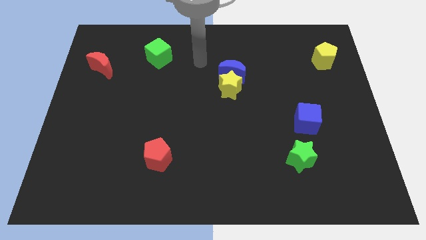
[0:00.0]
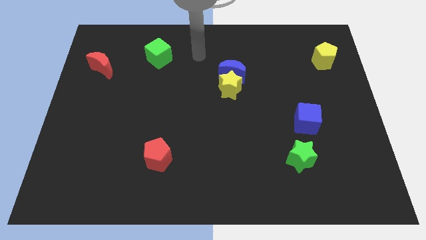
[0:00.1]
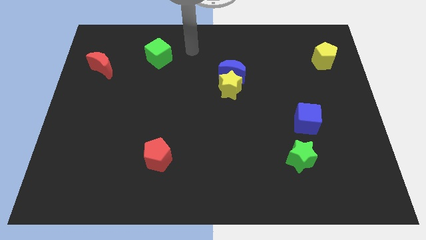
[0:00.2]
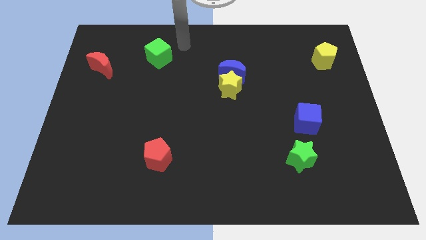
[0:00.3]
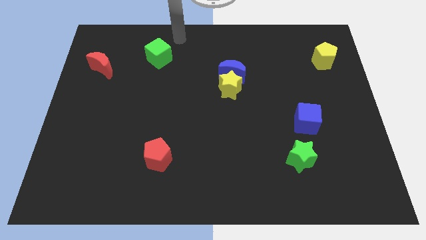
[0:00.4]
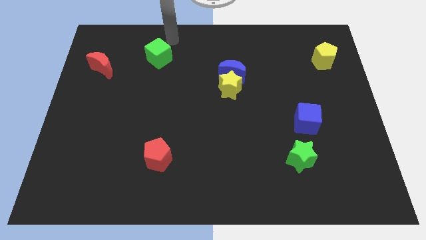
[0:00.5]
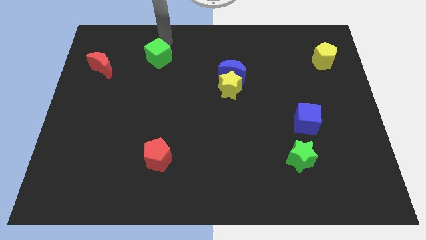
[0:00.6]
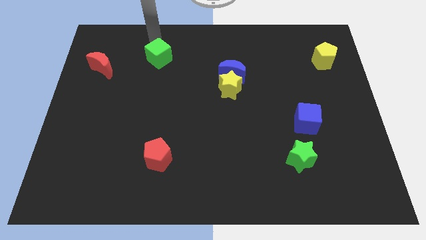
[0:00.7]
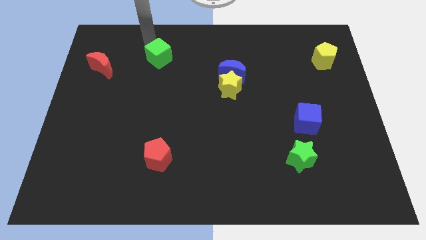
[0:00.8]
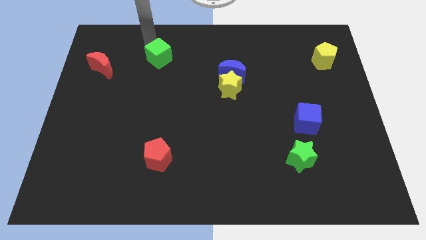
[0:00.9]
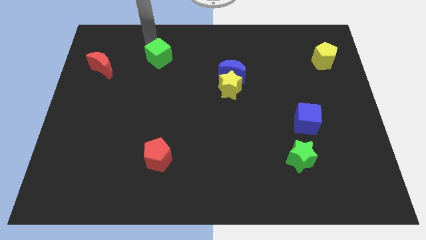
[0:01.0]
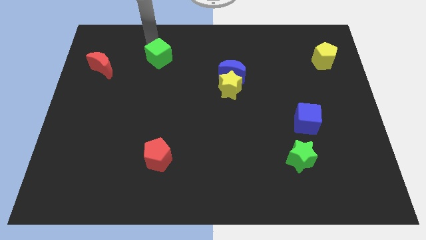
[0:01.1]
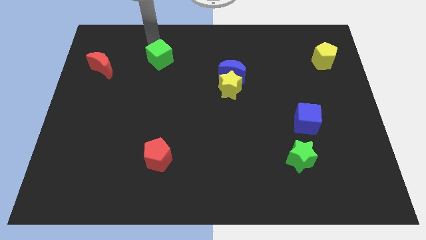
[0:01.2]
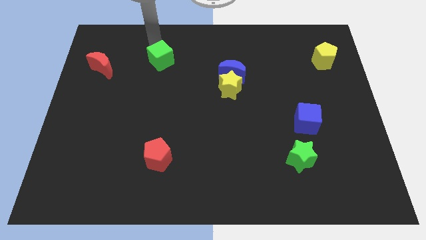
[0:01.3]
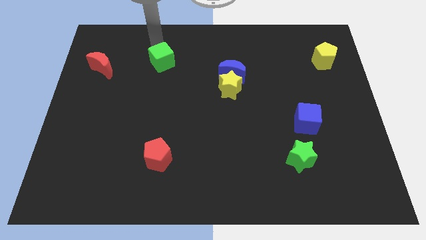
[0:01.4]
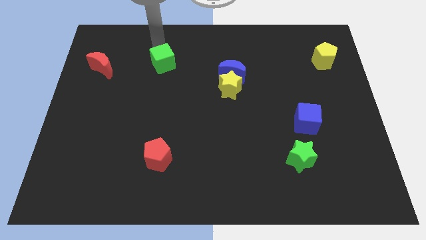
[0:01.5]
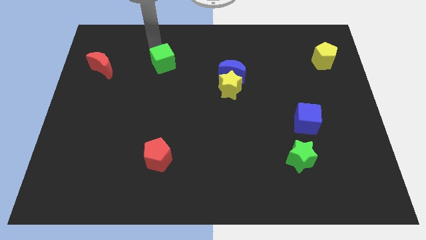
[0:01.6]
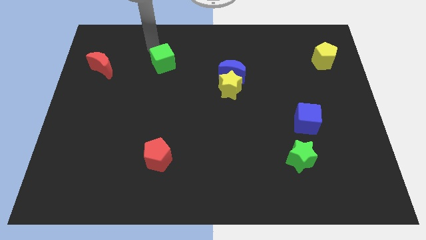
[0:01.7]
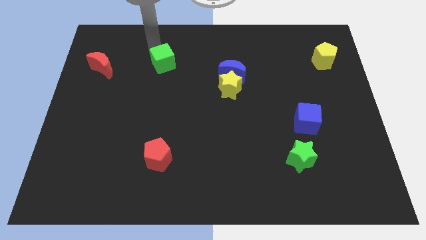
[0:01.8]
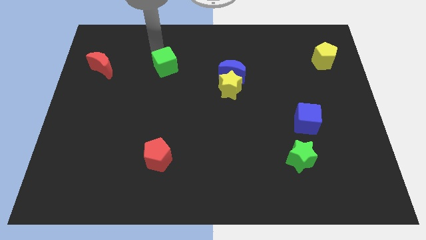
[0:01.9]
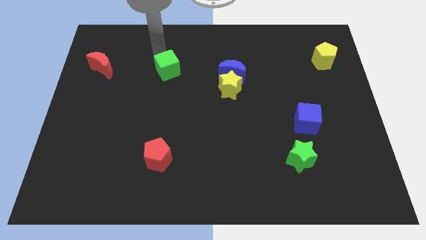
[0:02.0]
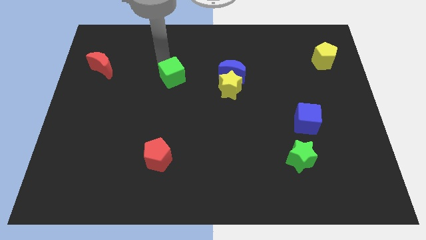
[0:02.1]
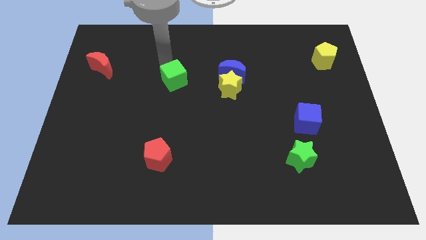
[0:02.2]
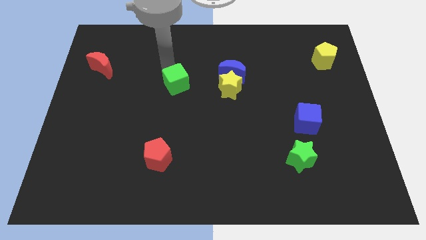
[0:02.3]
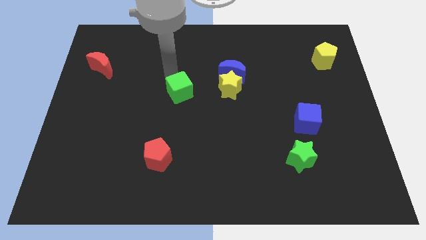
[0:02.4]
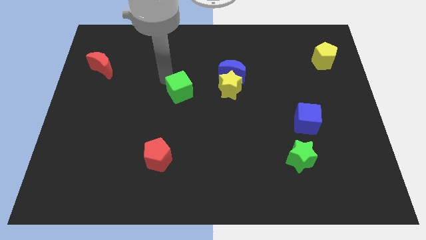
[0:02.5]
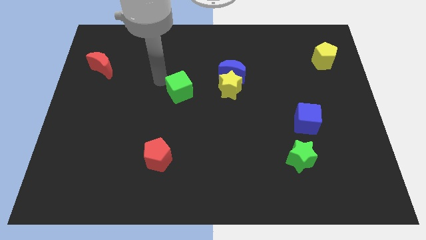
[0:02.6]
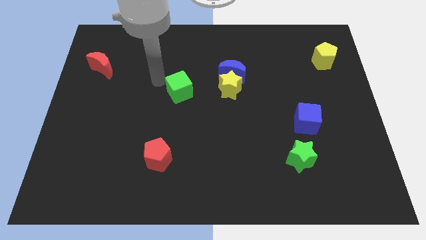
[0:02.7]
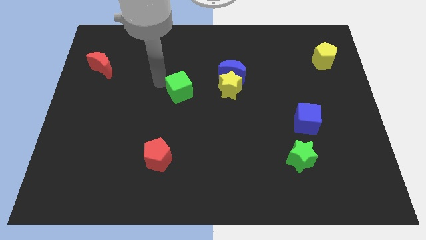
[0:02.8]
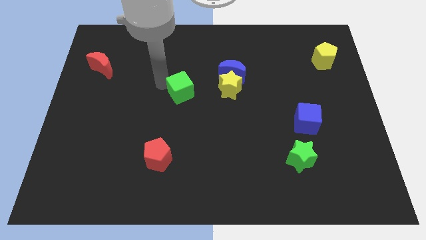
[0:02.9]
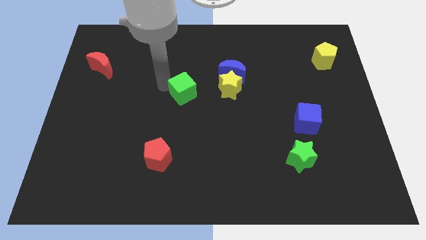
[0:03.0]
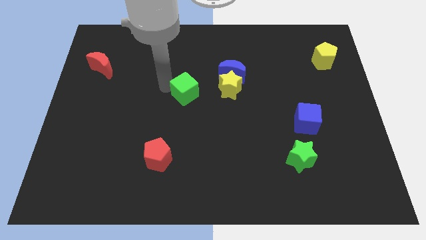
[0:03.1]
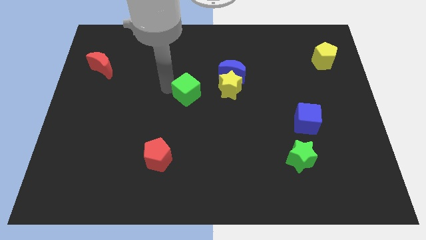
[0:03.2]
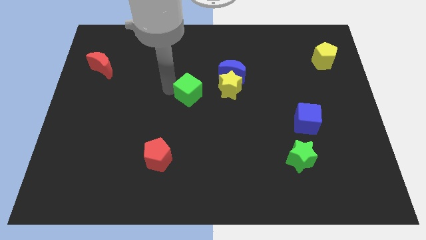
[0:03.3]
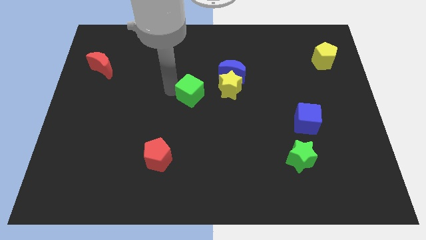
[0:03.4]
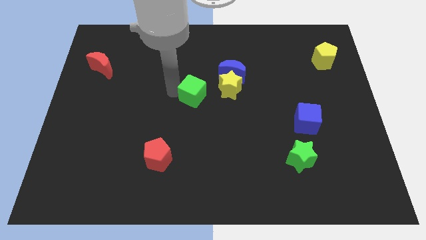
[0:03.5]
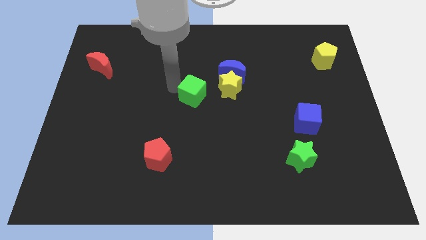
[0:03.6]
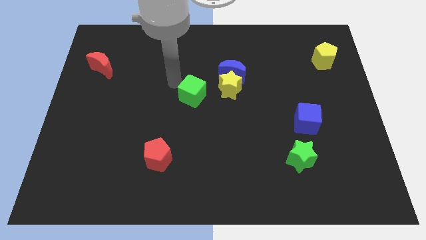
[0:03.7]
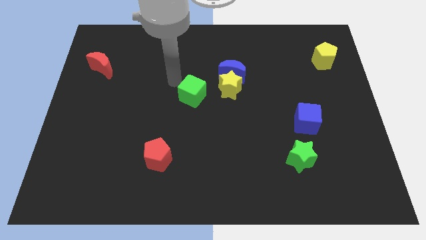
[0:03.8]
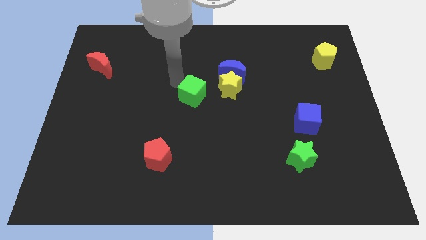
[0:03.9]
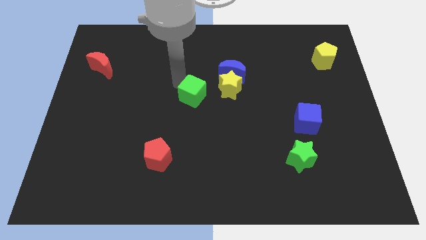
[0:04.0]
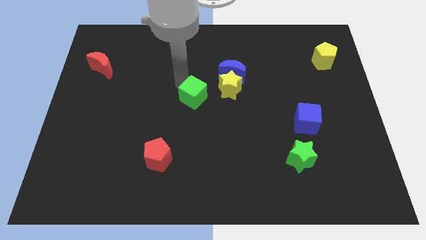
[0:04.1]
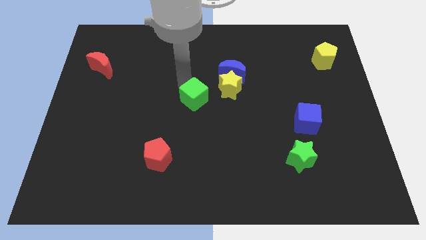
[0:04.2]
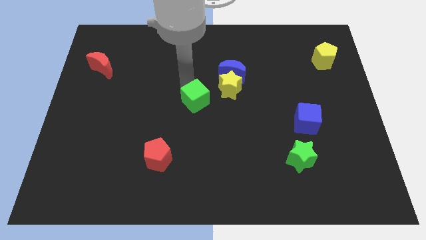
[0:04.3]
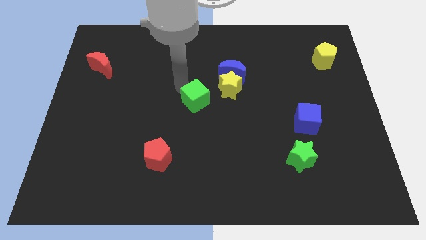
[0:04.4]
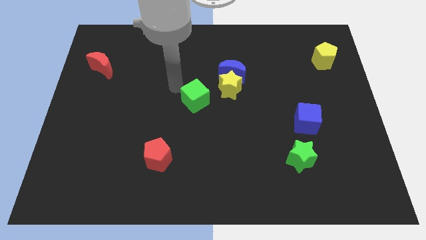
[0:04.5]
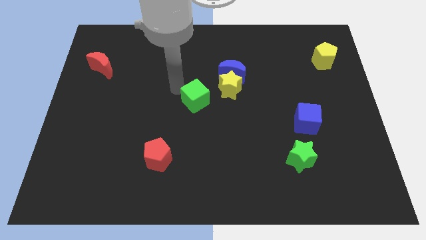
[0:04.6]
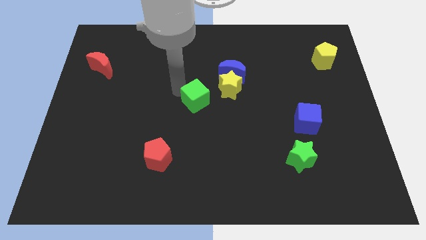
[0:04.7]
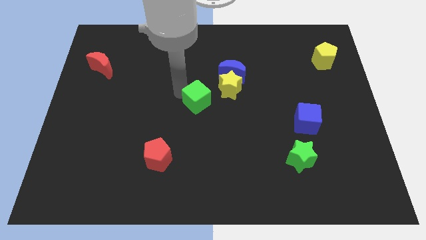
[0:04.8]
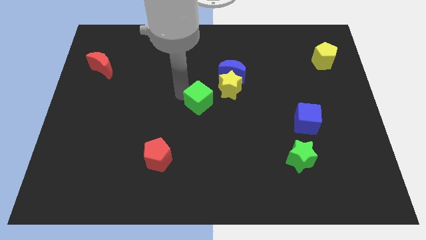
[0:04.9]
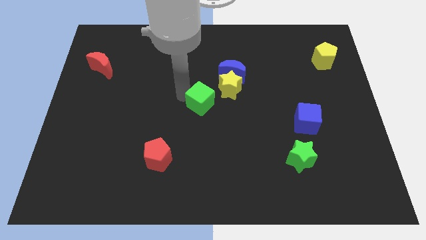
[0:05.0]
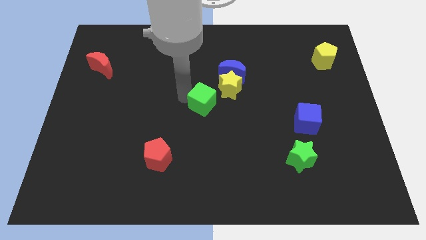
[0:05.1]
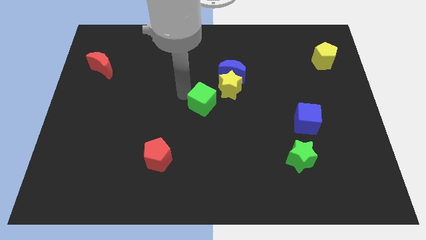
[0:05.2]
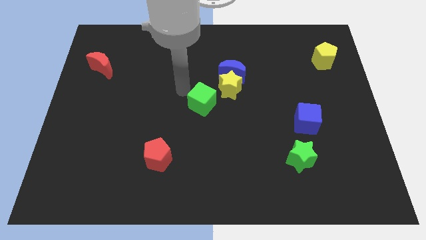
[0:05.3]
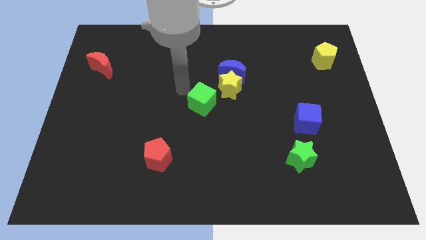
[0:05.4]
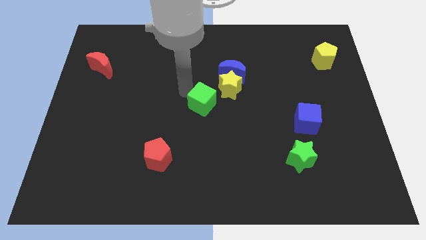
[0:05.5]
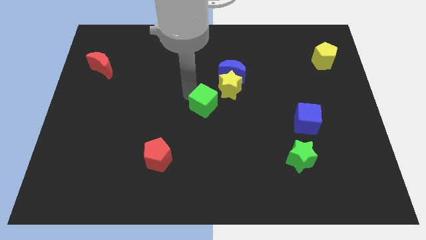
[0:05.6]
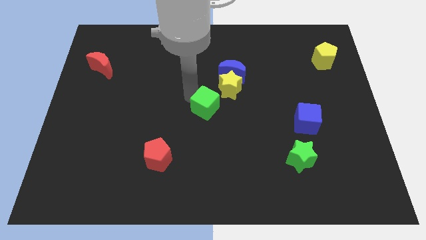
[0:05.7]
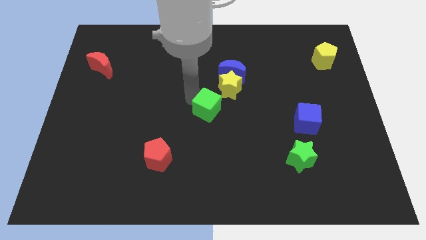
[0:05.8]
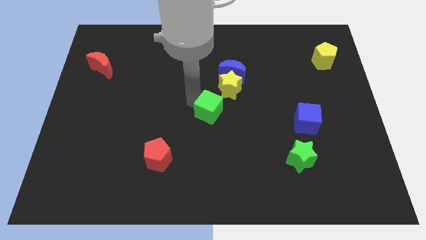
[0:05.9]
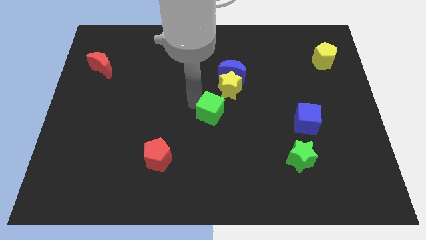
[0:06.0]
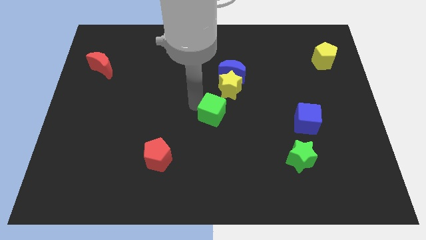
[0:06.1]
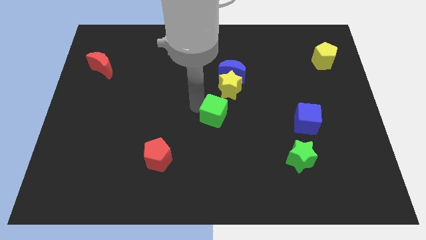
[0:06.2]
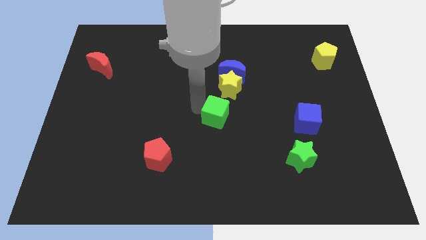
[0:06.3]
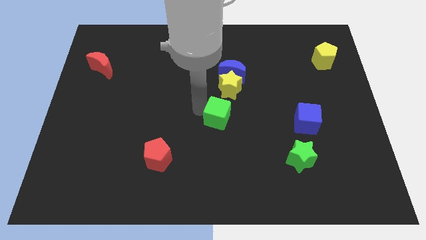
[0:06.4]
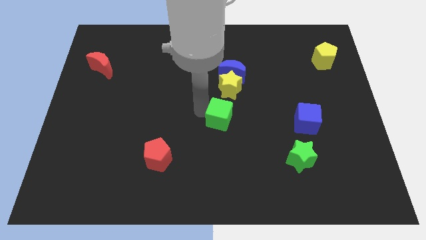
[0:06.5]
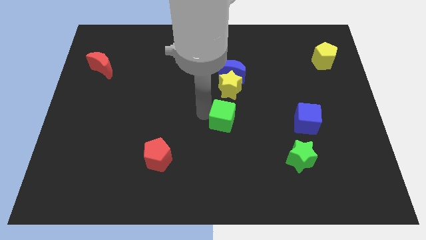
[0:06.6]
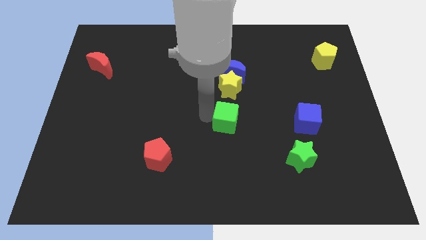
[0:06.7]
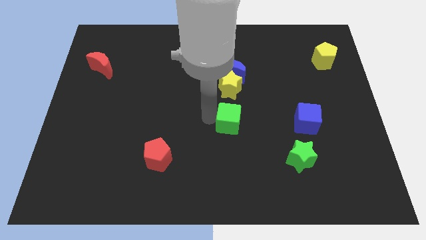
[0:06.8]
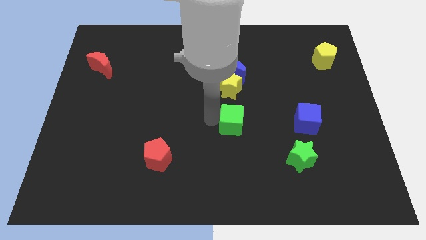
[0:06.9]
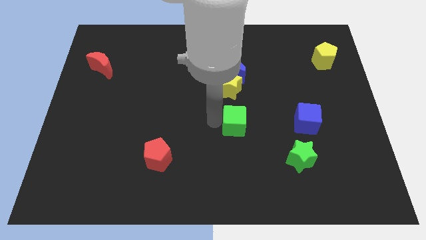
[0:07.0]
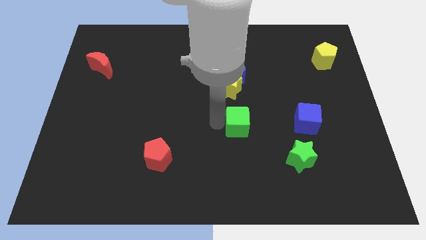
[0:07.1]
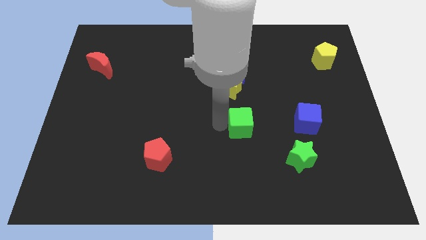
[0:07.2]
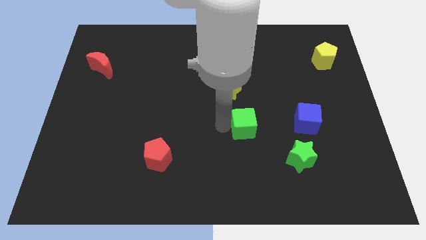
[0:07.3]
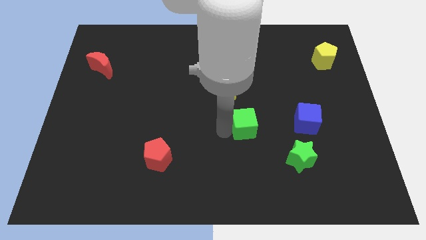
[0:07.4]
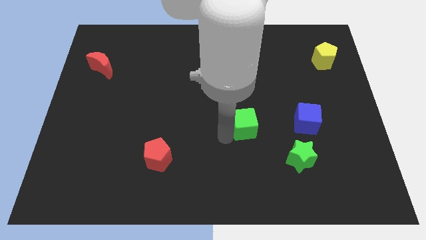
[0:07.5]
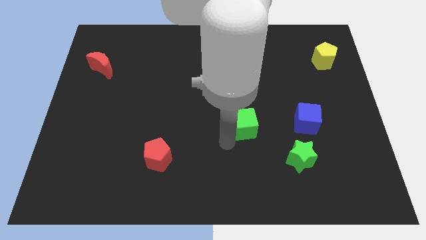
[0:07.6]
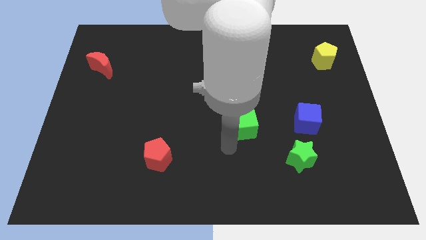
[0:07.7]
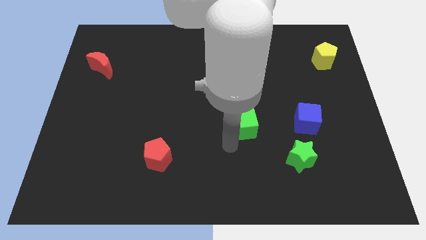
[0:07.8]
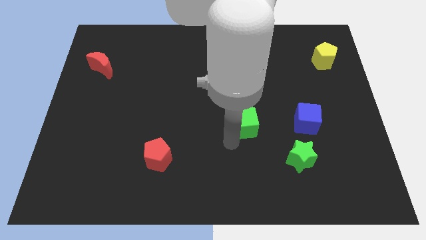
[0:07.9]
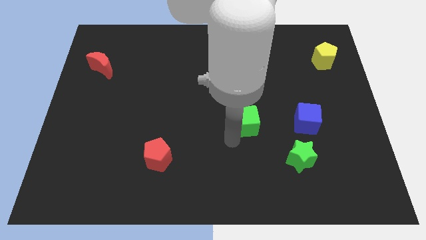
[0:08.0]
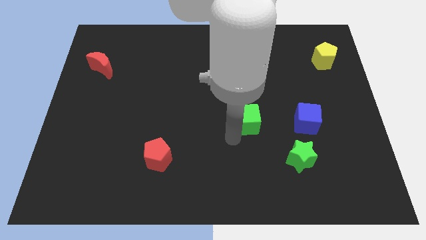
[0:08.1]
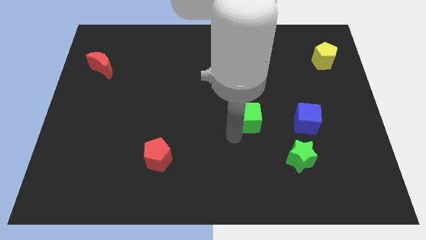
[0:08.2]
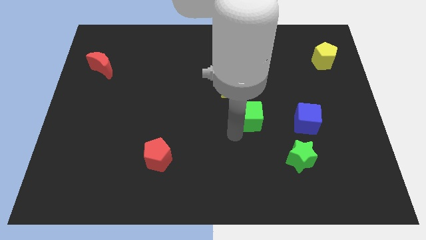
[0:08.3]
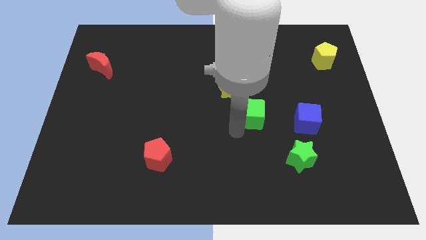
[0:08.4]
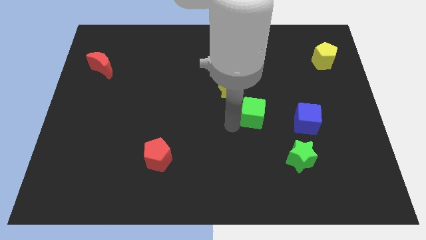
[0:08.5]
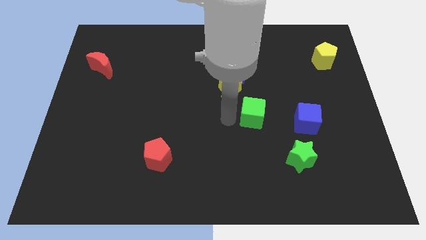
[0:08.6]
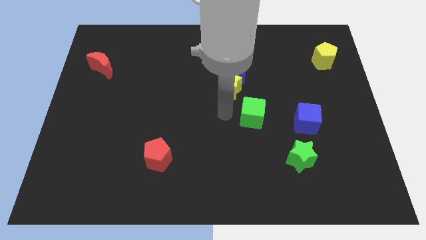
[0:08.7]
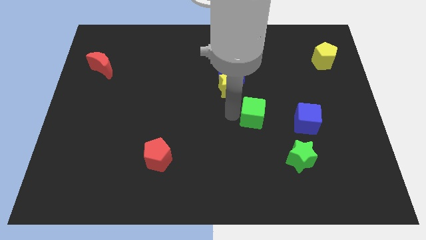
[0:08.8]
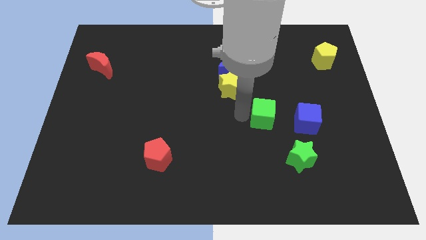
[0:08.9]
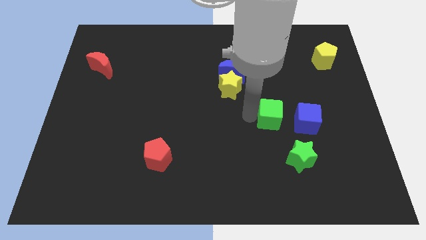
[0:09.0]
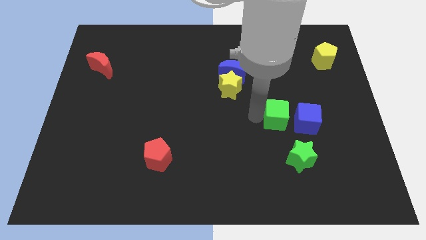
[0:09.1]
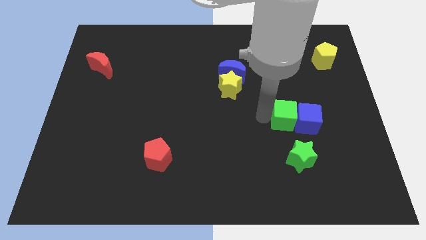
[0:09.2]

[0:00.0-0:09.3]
move the green cube next to the blue cube
